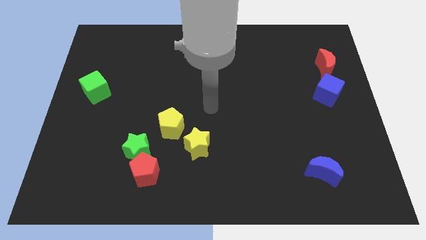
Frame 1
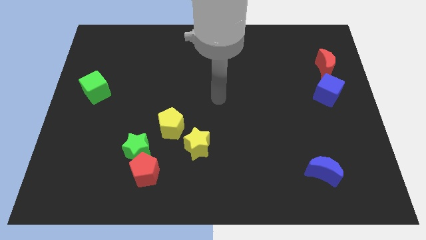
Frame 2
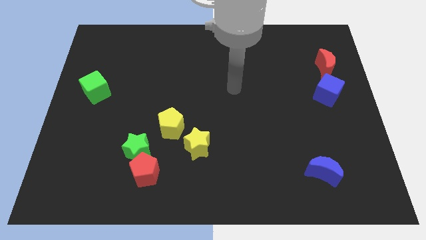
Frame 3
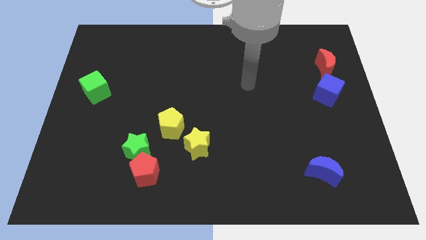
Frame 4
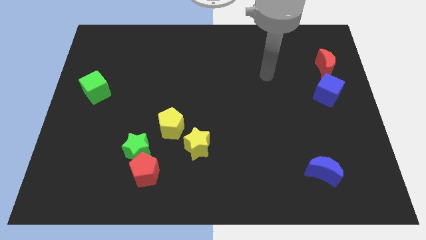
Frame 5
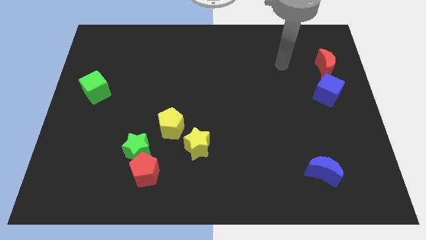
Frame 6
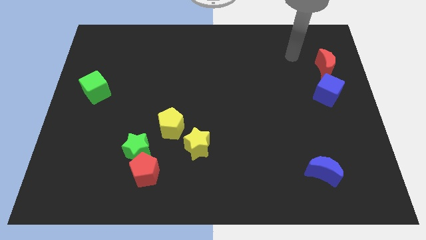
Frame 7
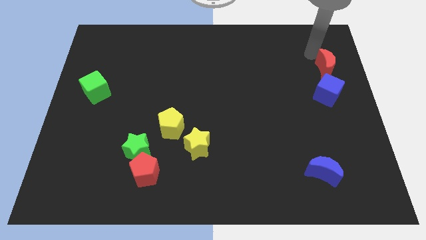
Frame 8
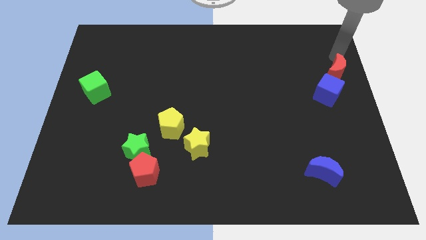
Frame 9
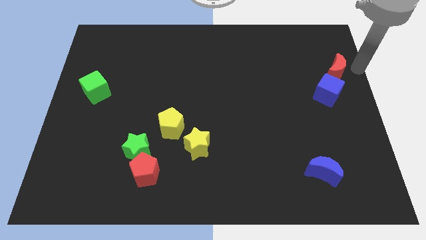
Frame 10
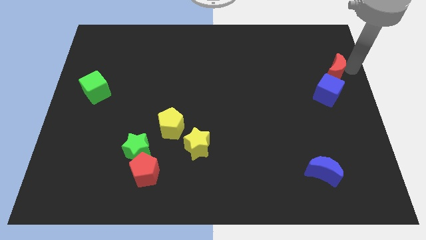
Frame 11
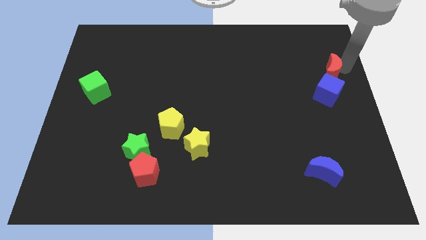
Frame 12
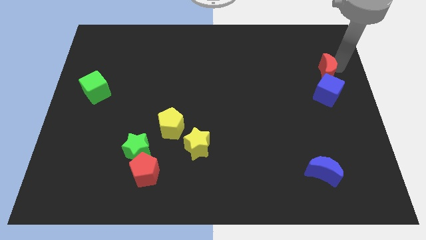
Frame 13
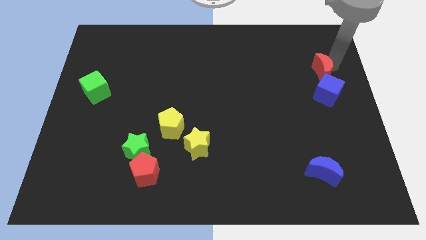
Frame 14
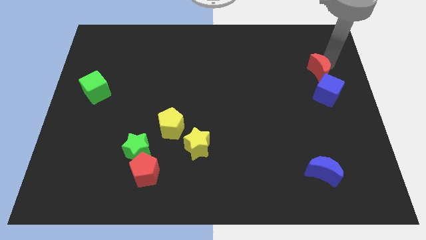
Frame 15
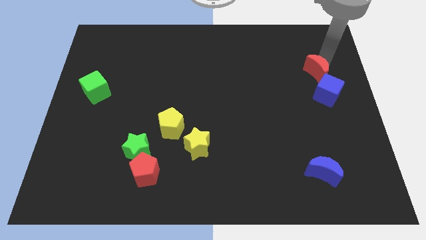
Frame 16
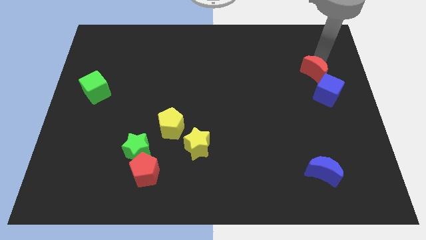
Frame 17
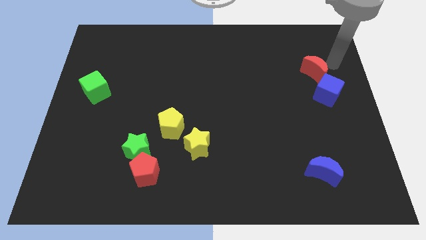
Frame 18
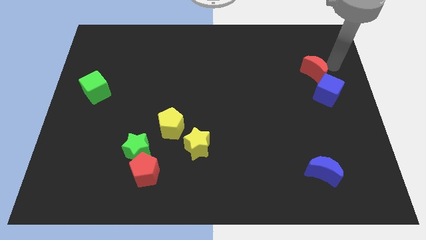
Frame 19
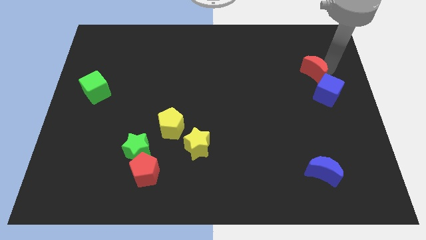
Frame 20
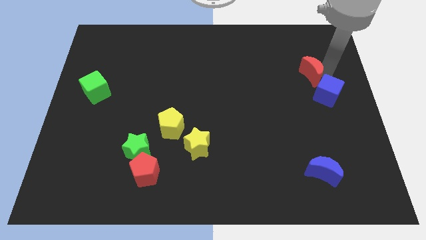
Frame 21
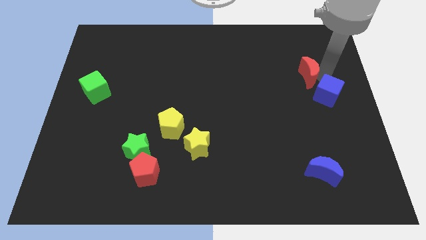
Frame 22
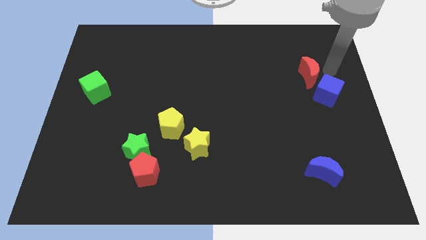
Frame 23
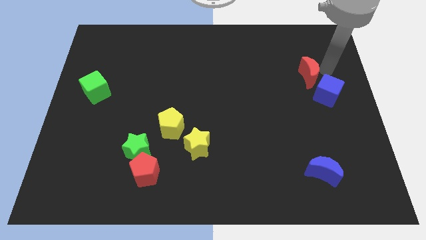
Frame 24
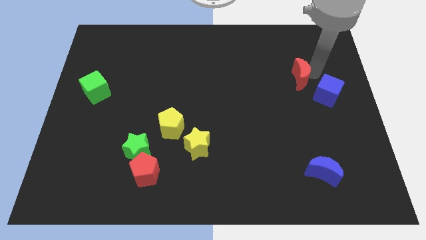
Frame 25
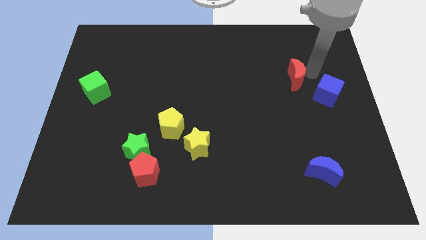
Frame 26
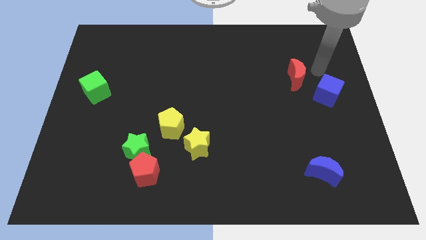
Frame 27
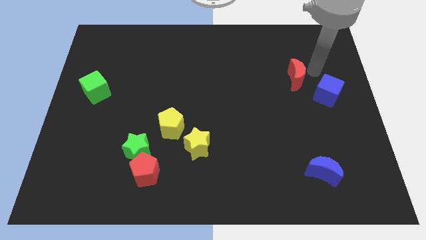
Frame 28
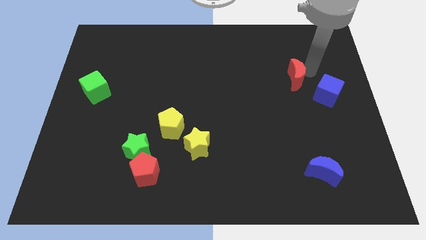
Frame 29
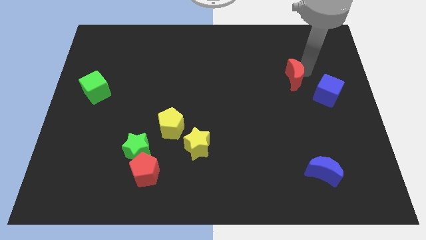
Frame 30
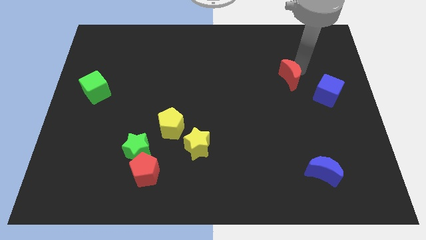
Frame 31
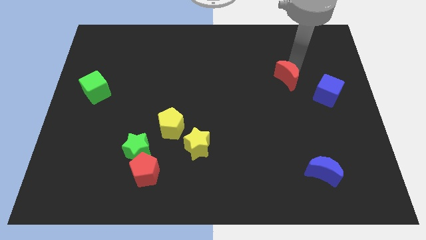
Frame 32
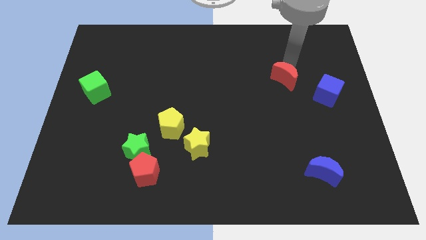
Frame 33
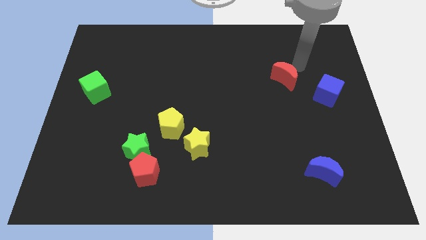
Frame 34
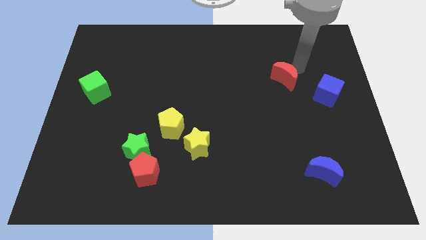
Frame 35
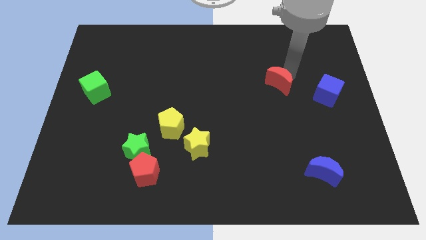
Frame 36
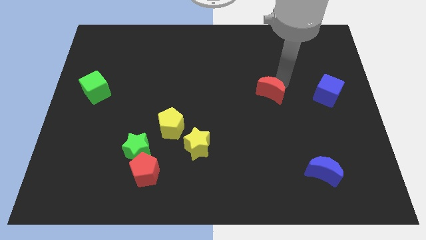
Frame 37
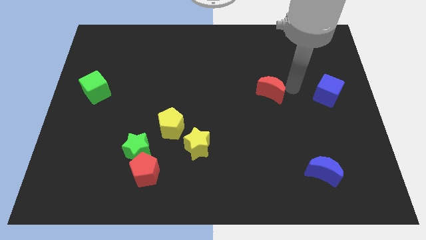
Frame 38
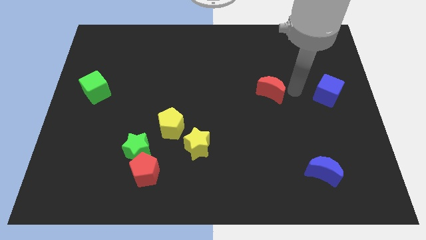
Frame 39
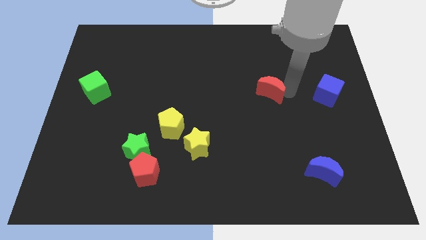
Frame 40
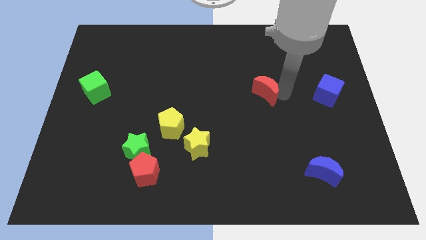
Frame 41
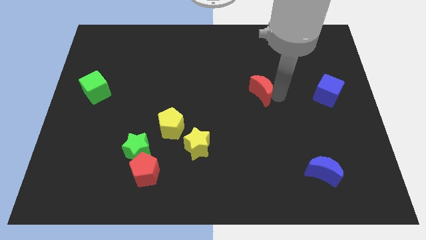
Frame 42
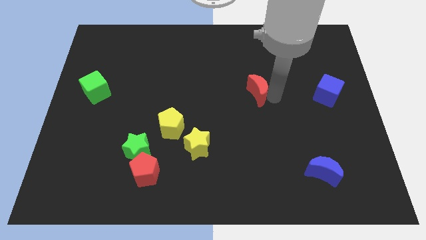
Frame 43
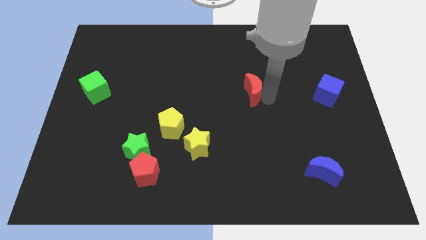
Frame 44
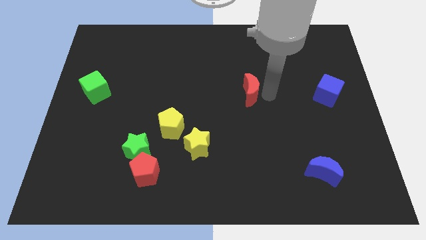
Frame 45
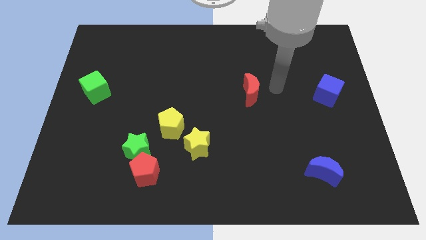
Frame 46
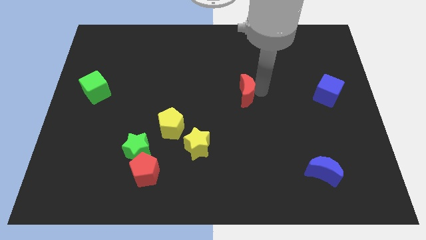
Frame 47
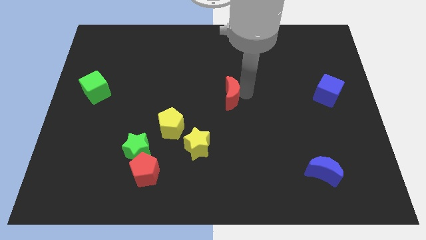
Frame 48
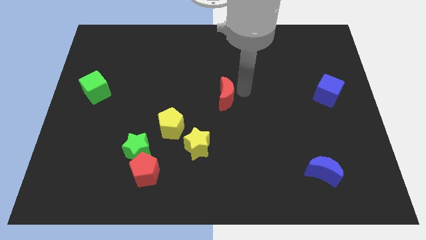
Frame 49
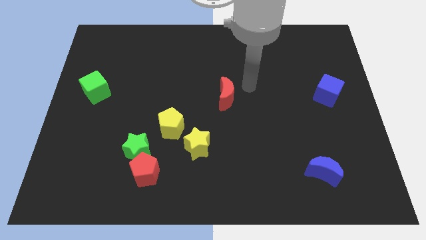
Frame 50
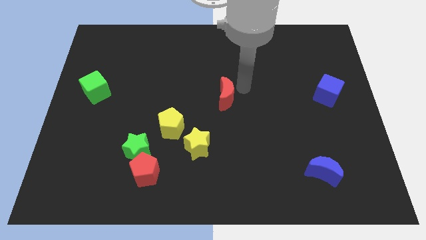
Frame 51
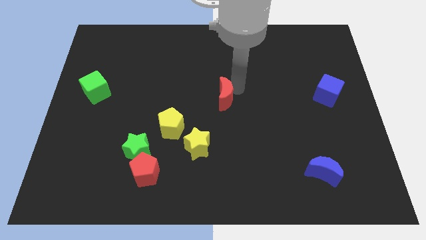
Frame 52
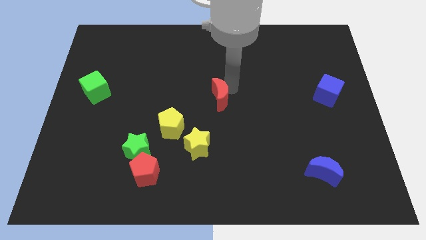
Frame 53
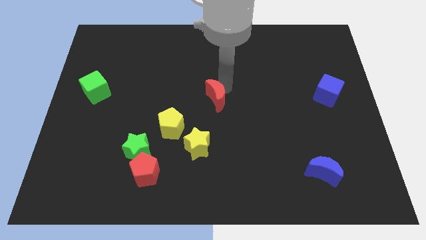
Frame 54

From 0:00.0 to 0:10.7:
push the red moon to the top side of the yellow star

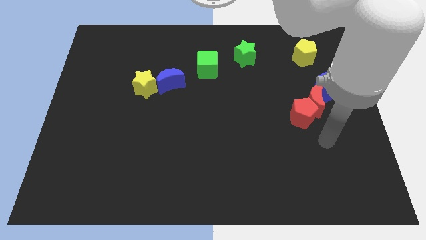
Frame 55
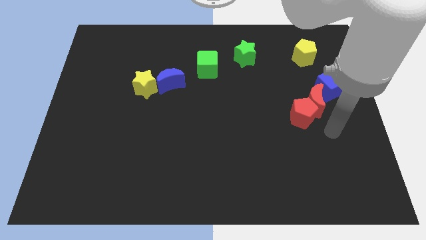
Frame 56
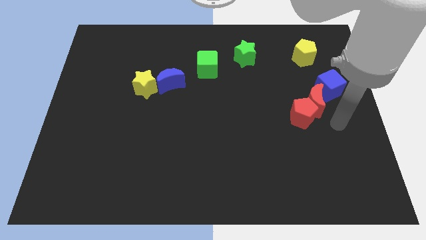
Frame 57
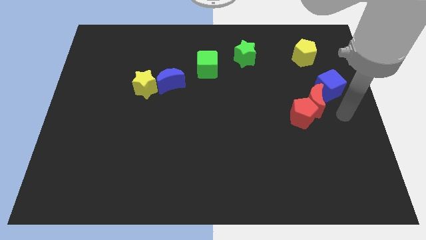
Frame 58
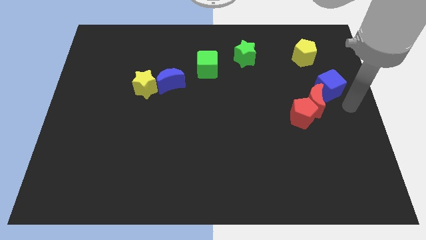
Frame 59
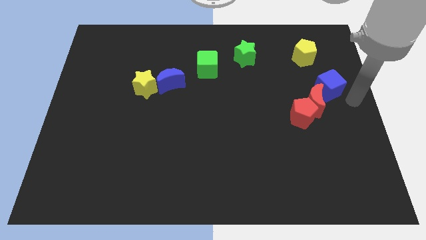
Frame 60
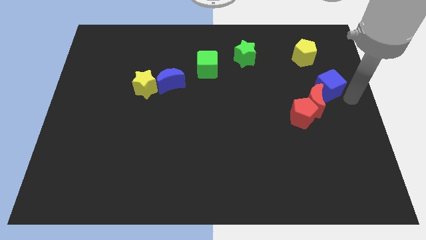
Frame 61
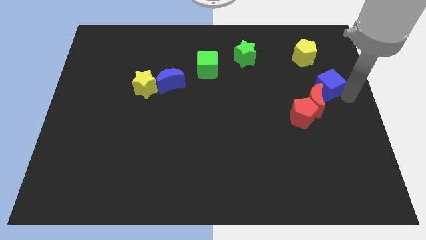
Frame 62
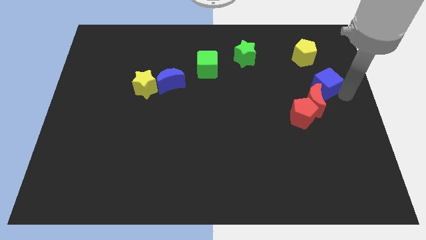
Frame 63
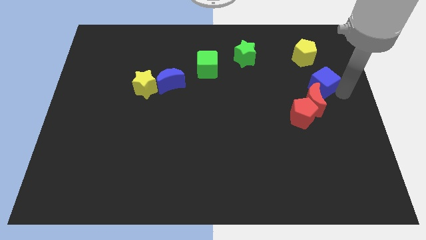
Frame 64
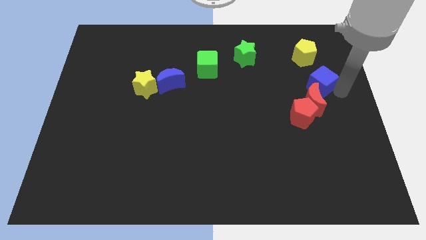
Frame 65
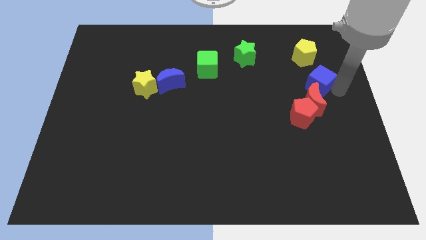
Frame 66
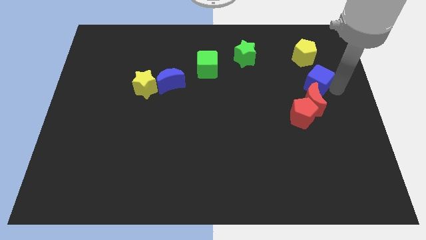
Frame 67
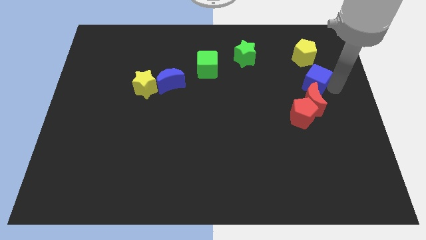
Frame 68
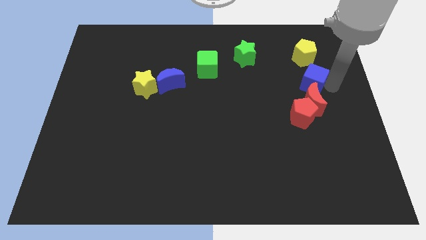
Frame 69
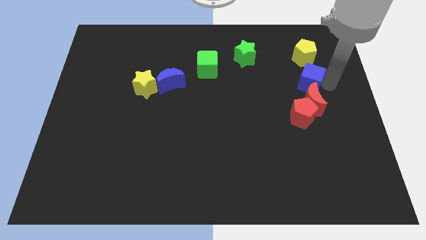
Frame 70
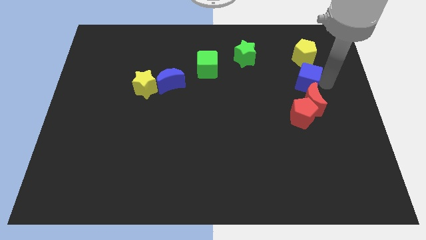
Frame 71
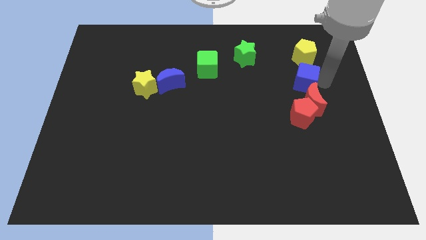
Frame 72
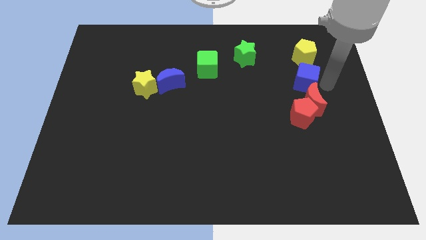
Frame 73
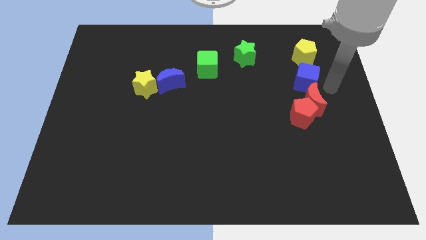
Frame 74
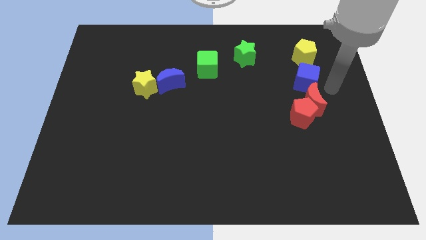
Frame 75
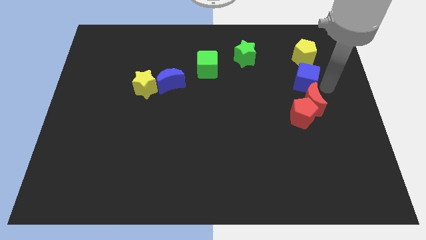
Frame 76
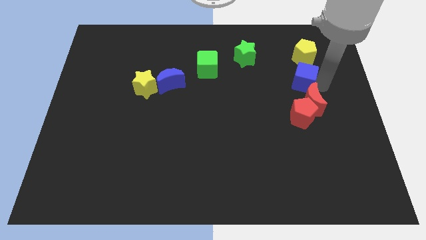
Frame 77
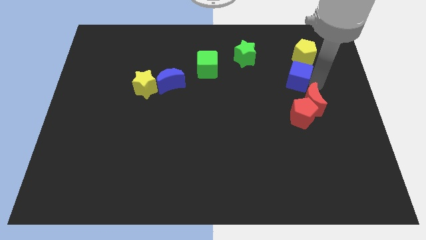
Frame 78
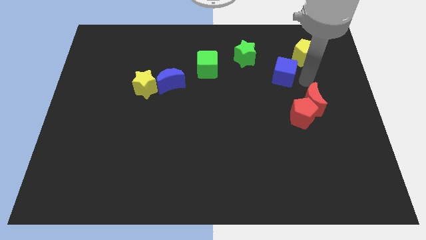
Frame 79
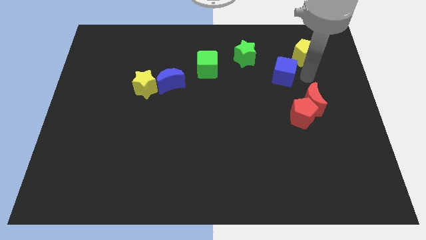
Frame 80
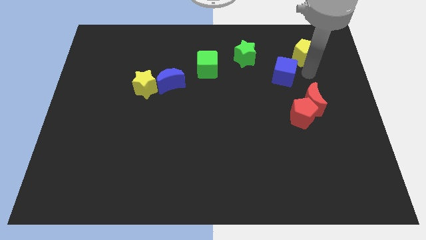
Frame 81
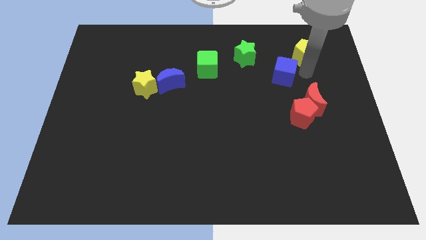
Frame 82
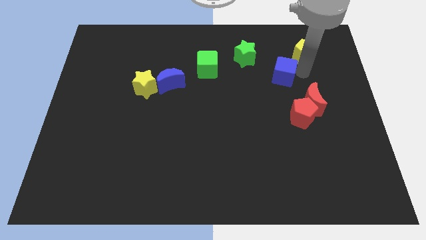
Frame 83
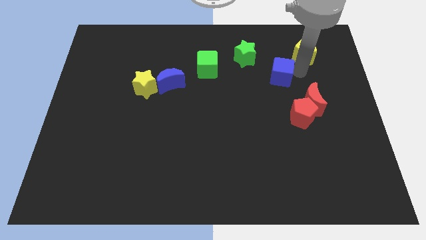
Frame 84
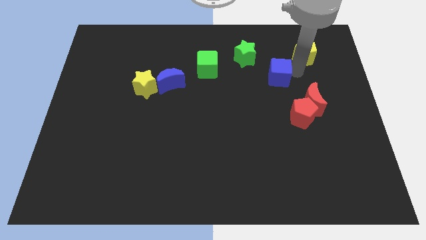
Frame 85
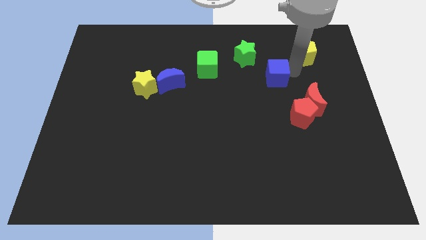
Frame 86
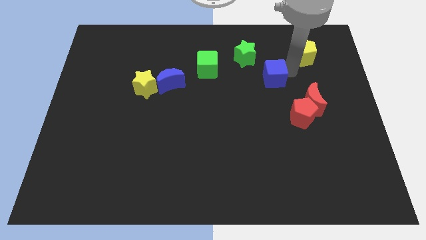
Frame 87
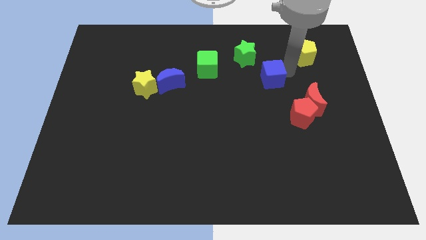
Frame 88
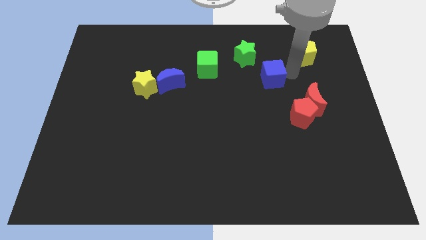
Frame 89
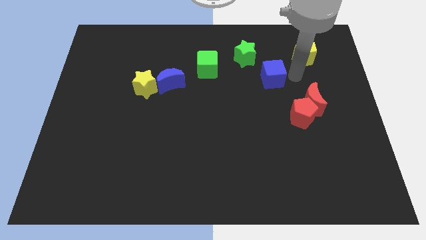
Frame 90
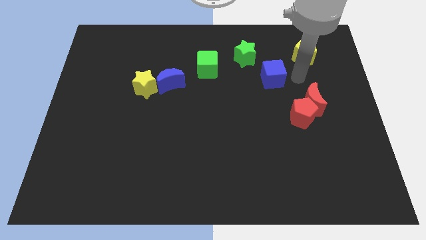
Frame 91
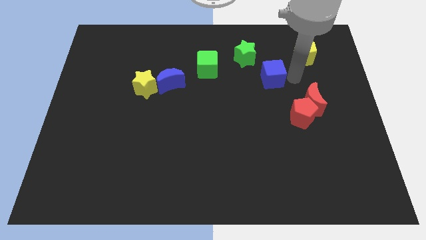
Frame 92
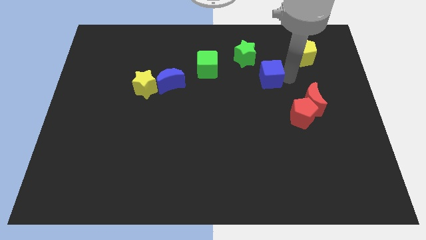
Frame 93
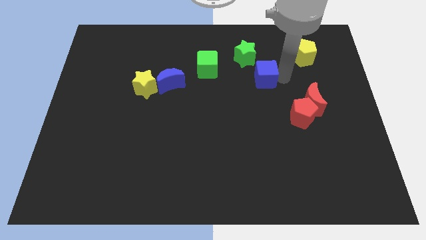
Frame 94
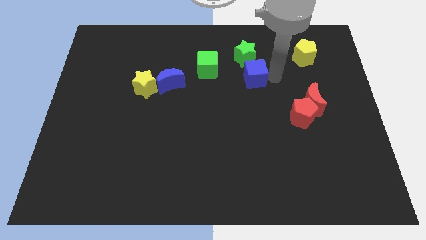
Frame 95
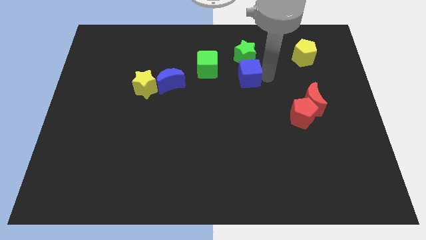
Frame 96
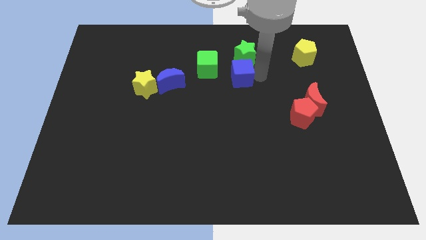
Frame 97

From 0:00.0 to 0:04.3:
put the blue cube to the bottom right side of the green cube
